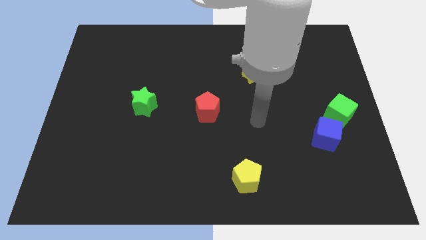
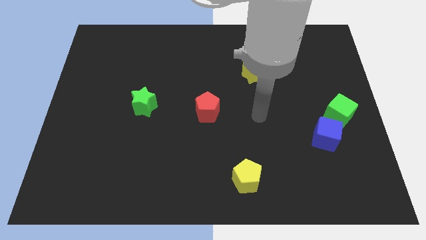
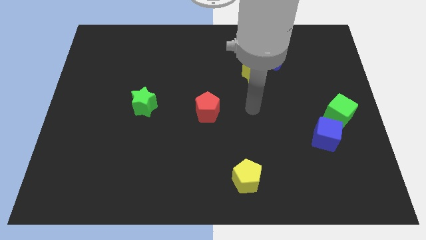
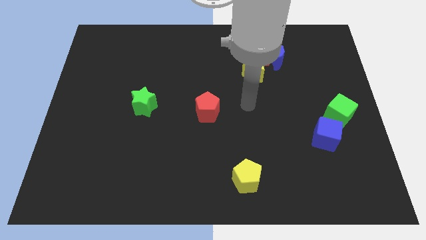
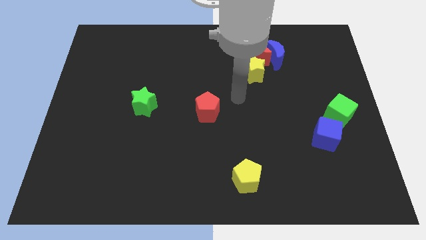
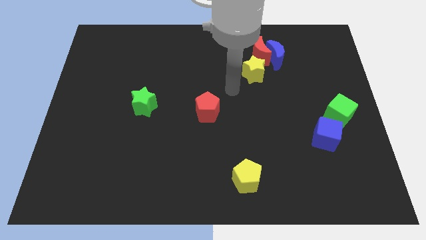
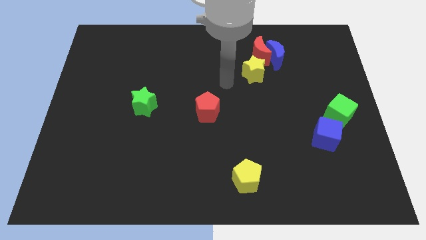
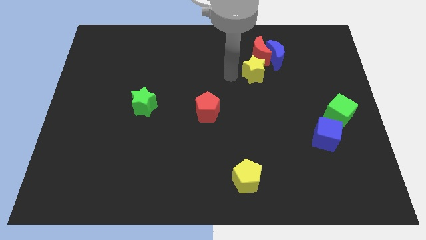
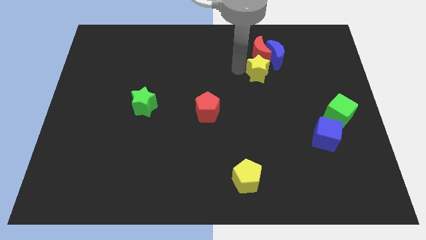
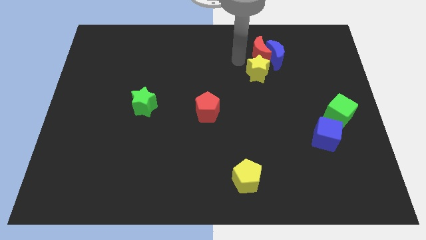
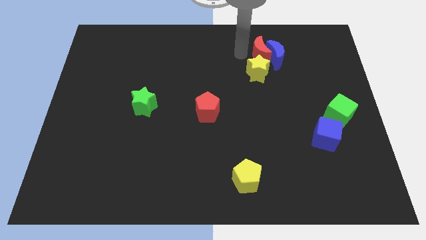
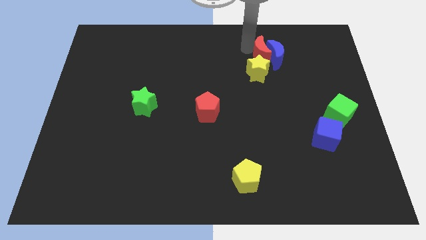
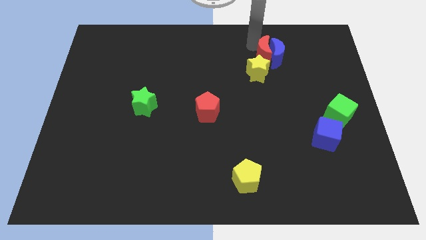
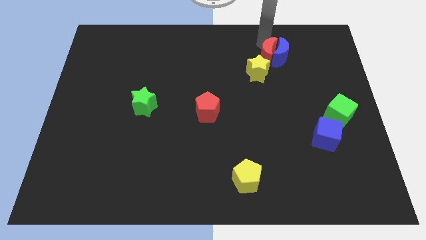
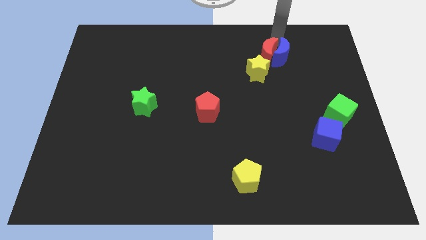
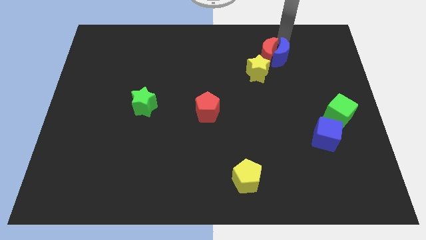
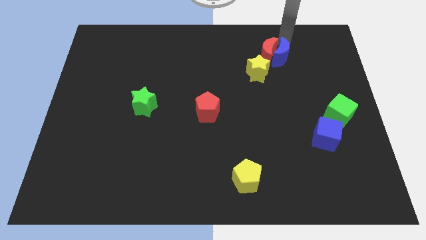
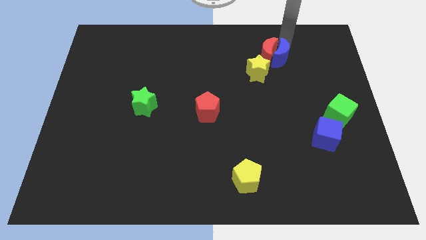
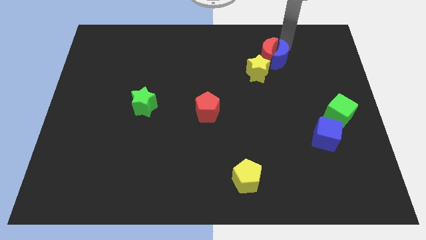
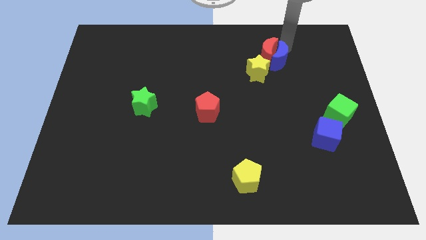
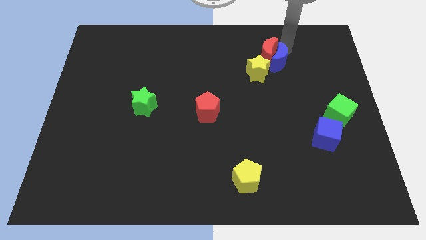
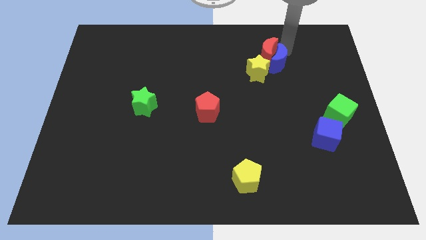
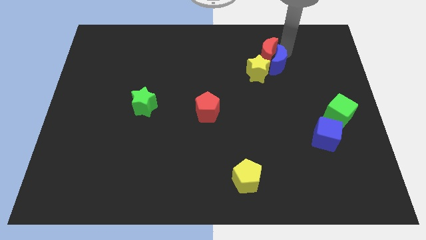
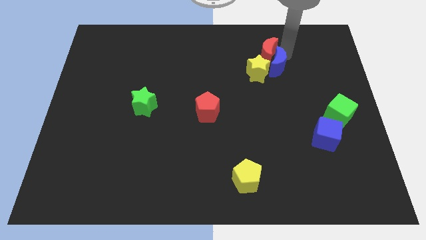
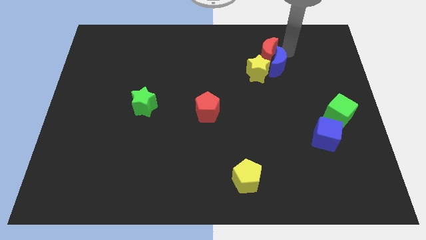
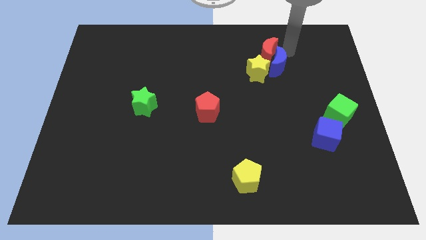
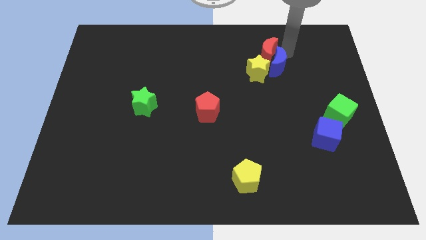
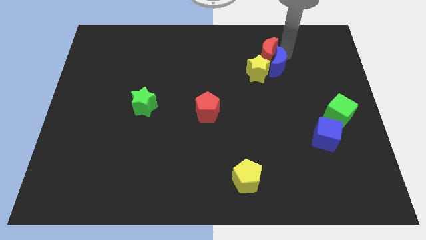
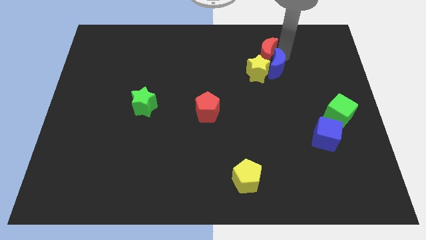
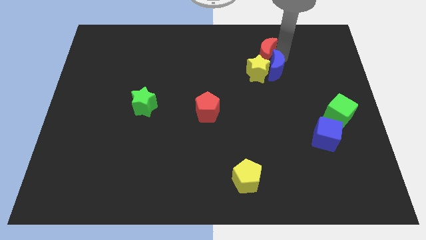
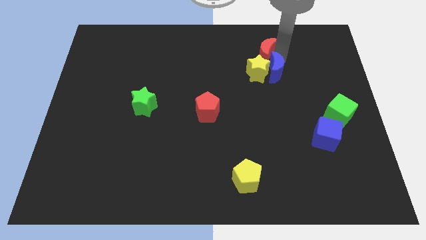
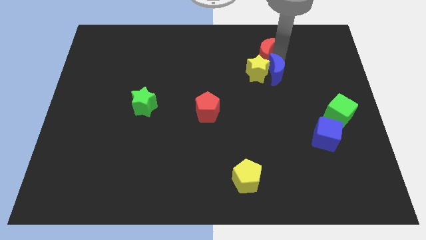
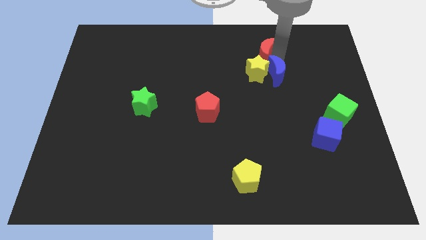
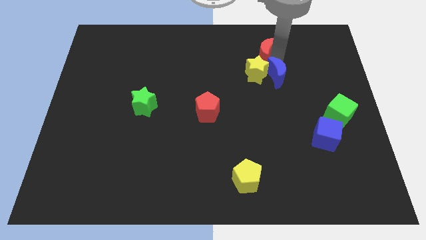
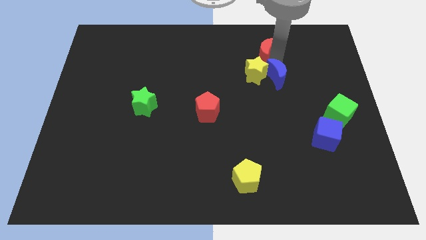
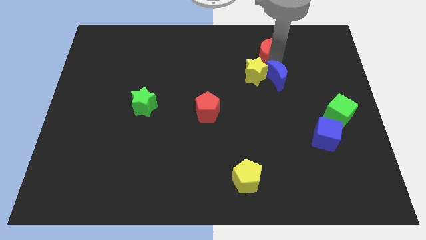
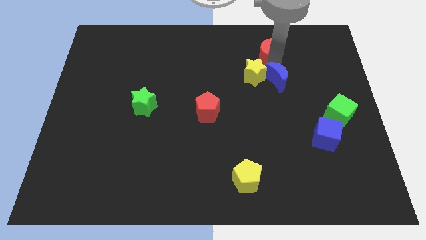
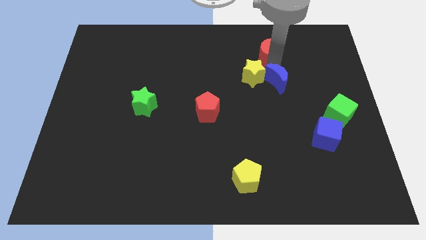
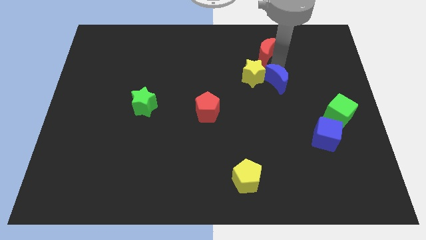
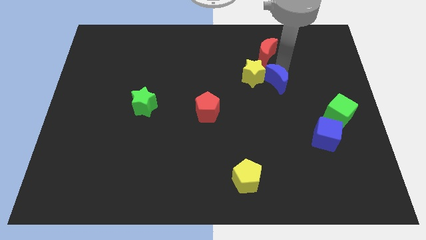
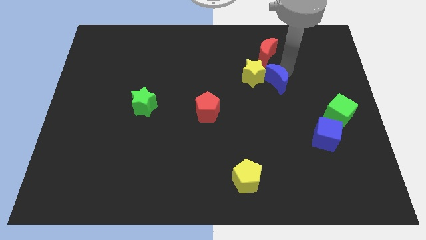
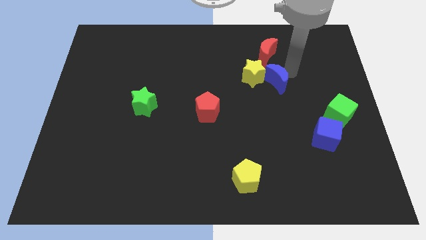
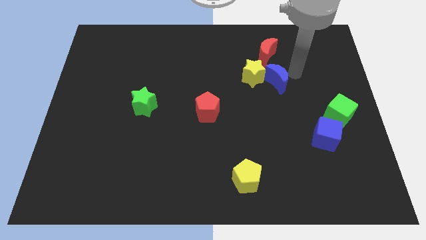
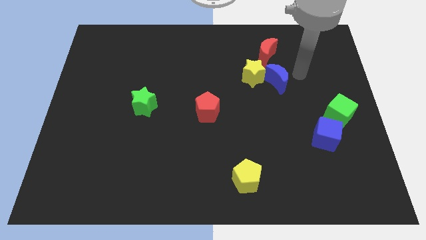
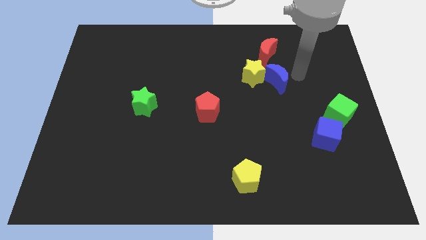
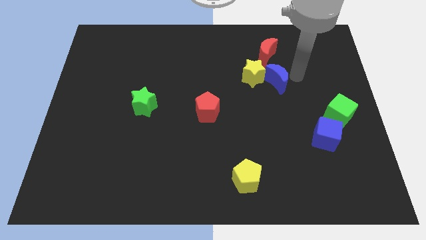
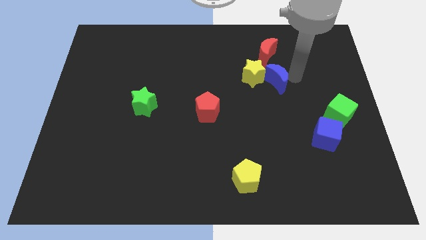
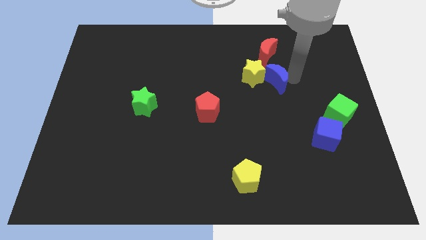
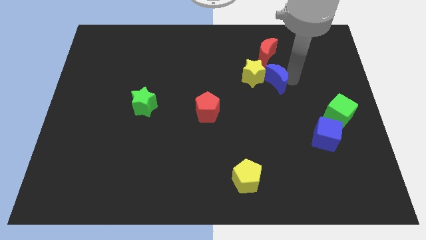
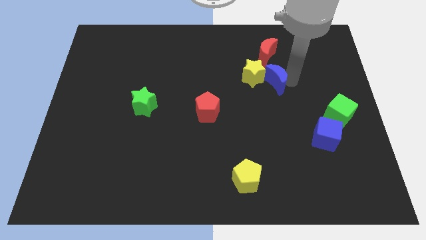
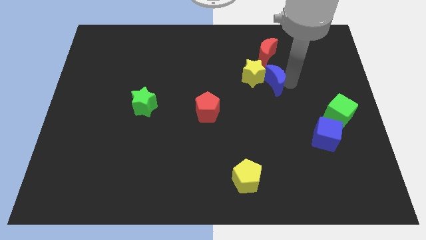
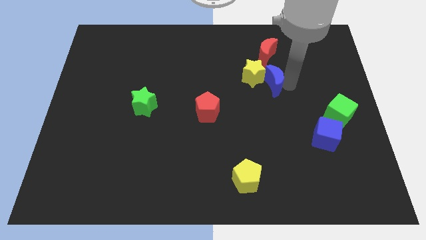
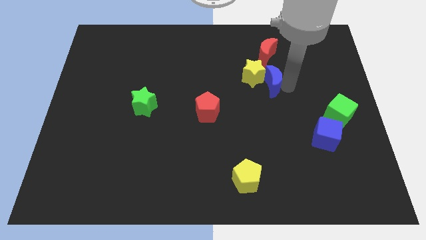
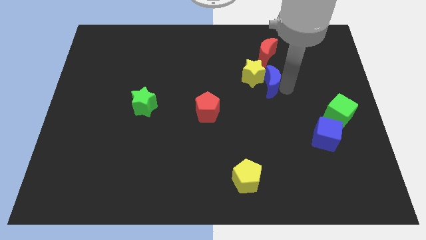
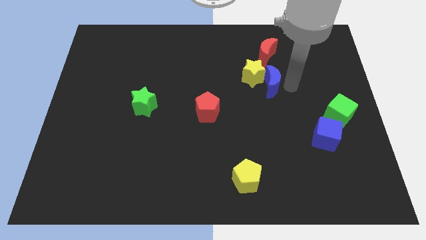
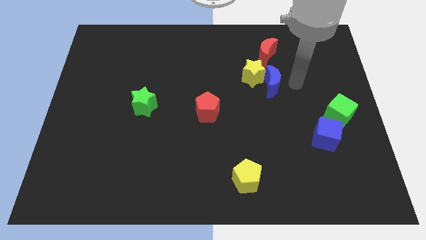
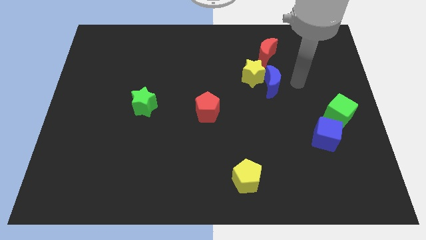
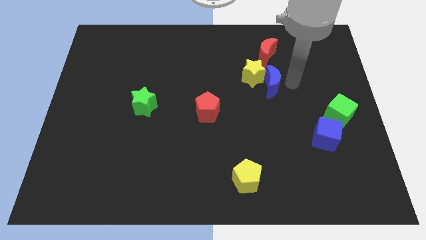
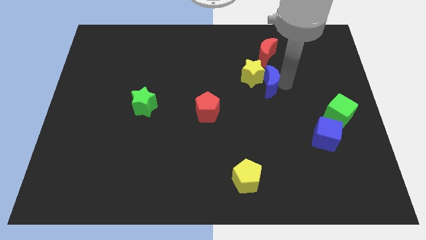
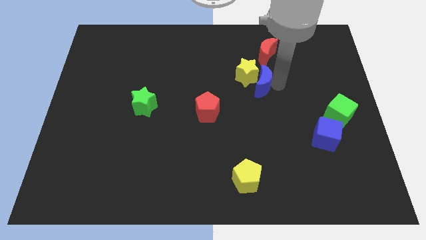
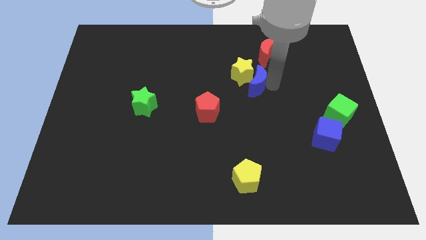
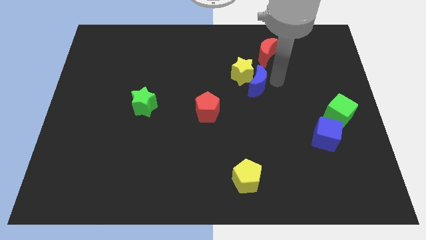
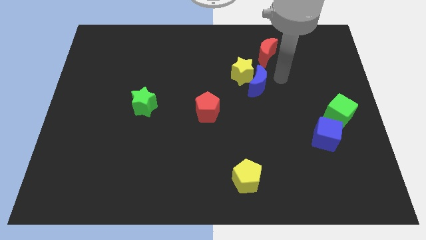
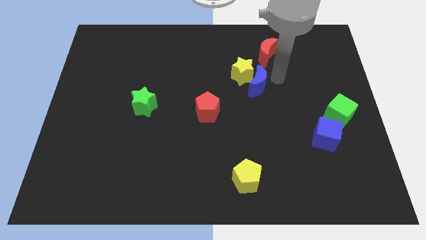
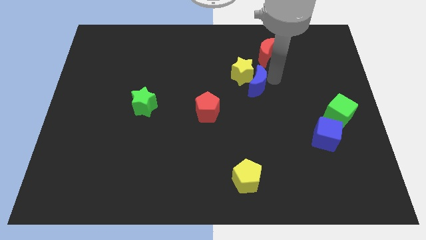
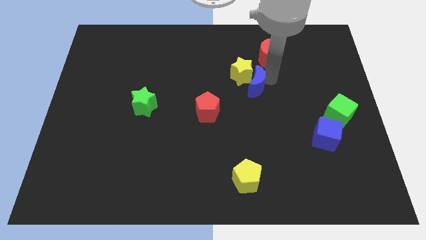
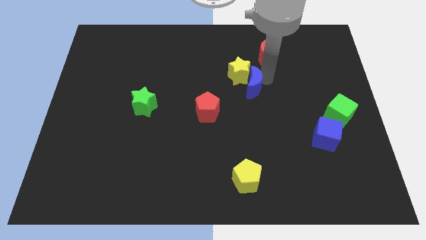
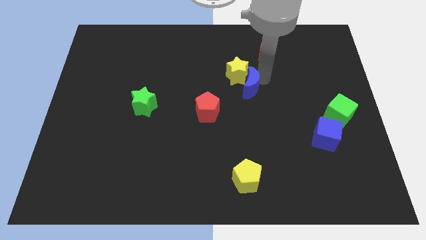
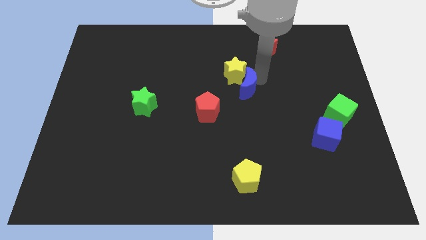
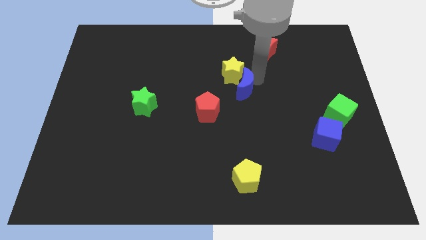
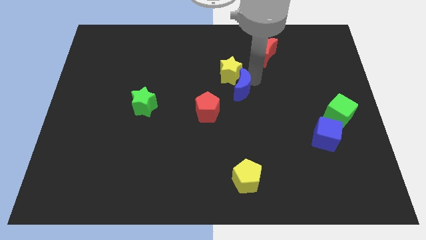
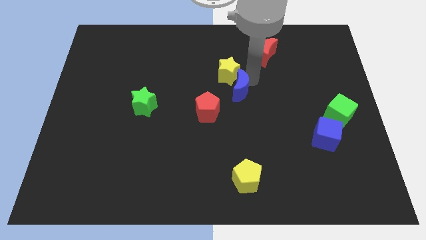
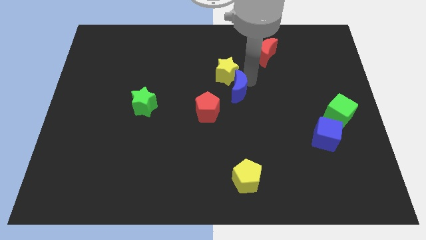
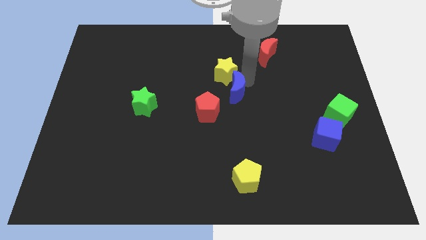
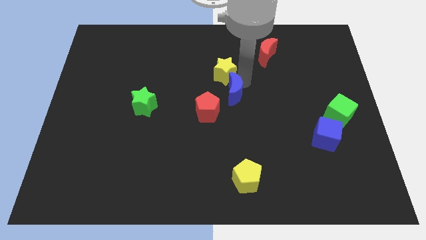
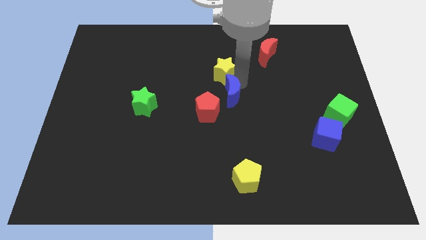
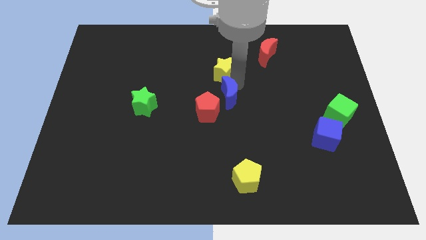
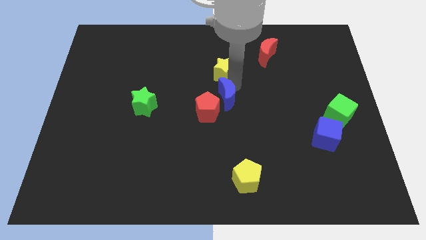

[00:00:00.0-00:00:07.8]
push the blue moon to the red pentagon

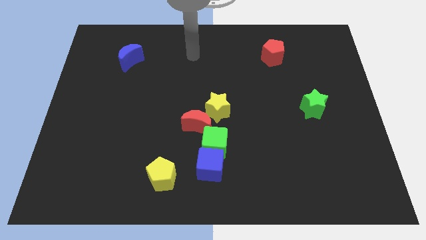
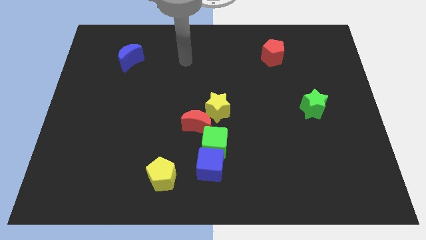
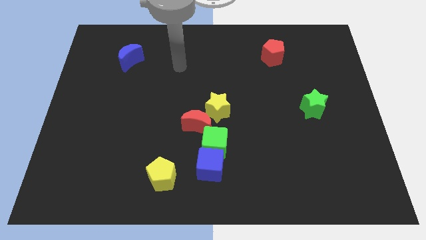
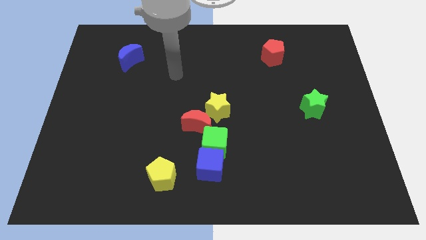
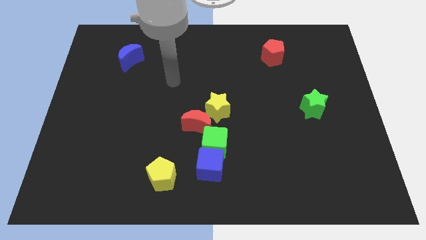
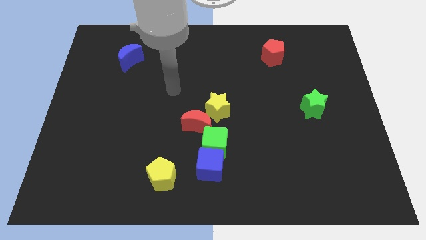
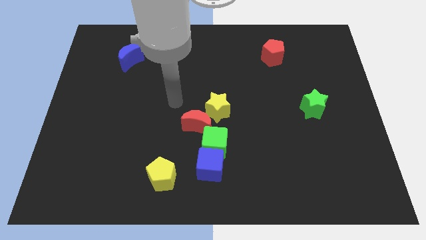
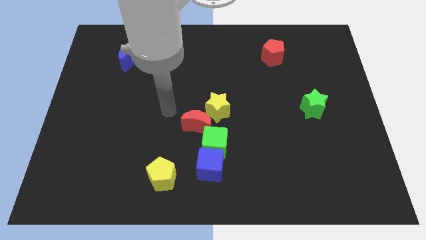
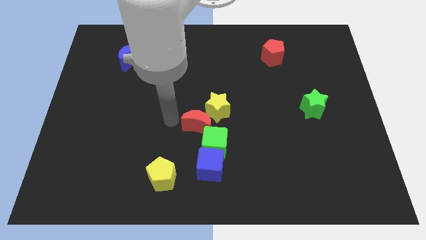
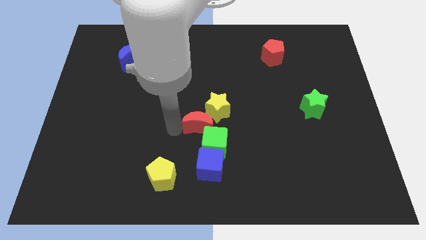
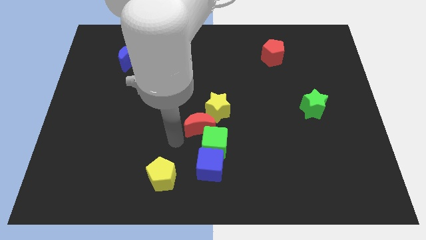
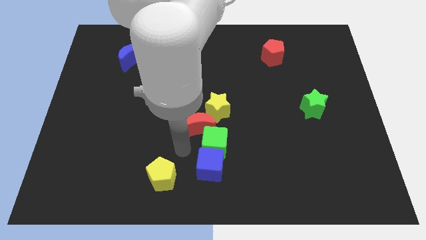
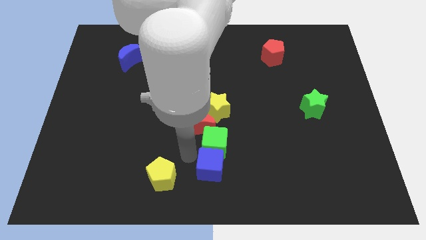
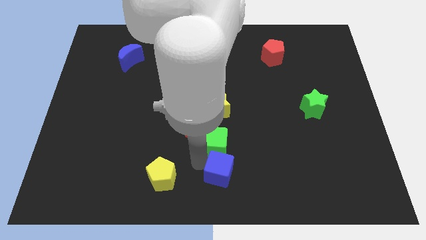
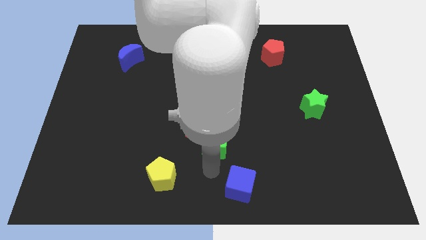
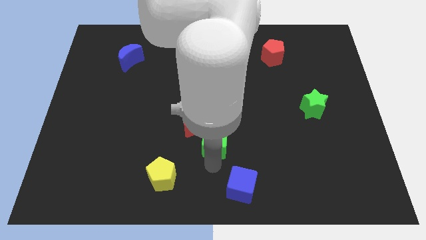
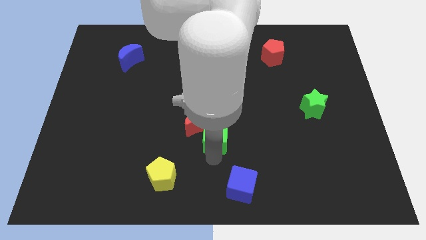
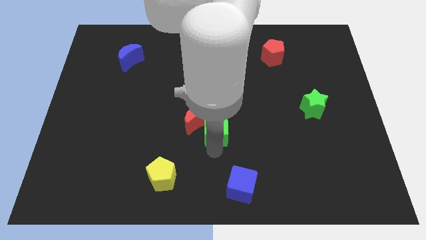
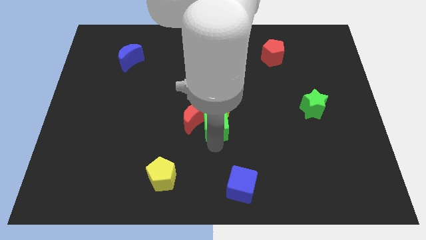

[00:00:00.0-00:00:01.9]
slide the green cube towards the yellow star
